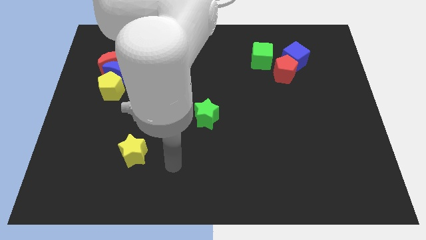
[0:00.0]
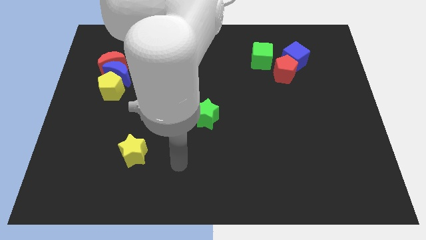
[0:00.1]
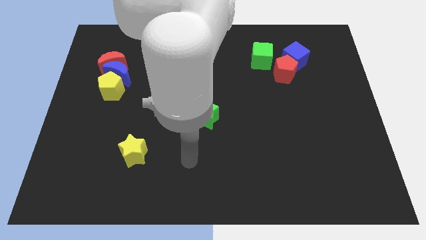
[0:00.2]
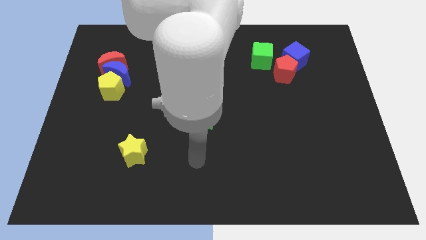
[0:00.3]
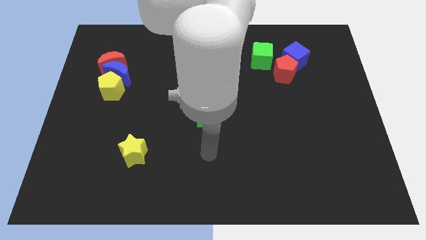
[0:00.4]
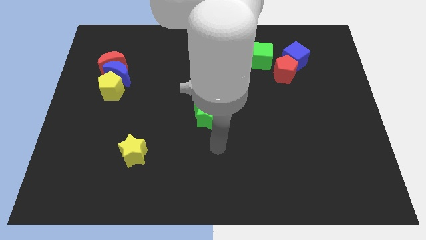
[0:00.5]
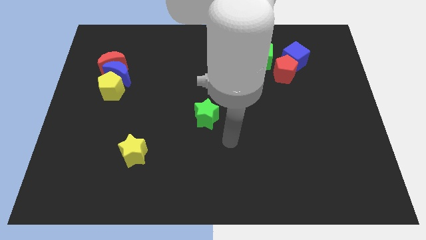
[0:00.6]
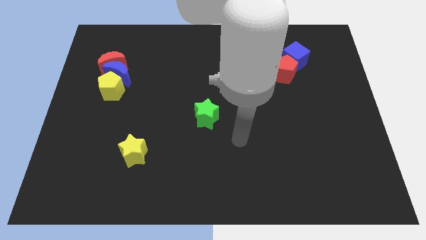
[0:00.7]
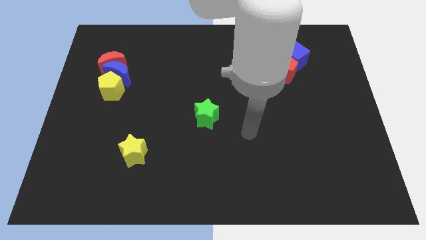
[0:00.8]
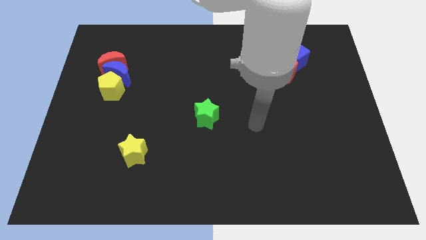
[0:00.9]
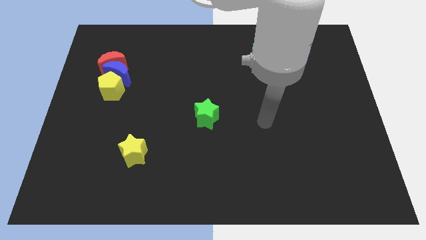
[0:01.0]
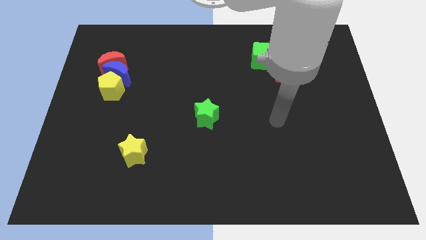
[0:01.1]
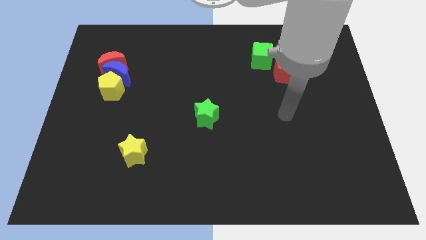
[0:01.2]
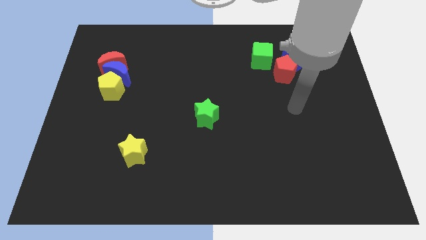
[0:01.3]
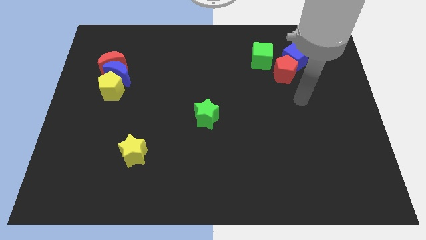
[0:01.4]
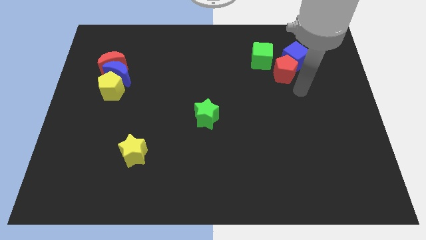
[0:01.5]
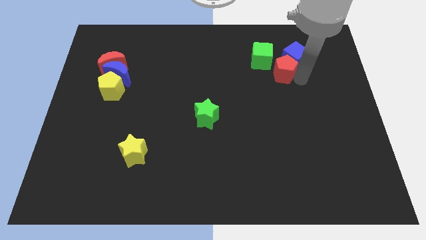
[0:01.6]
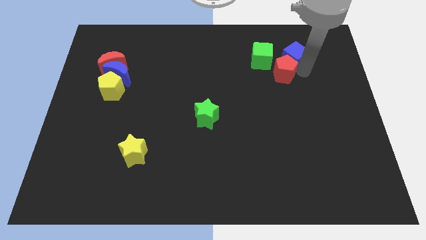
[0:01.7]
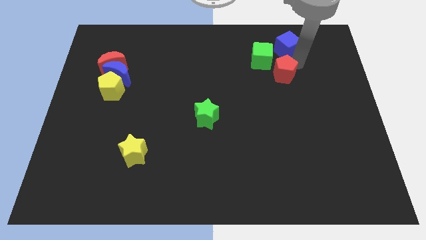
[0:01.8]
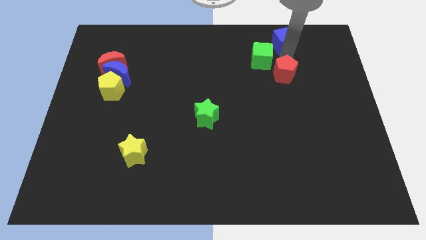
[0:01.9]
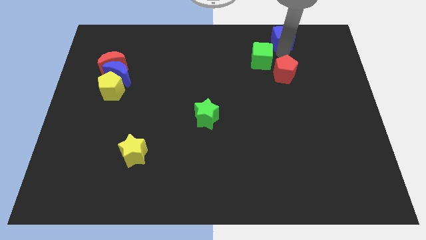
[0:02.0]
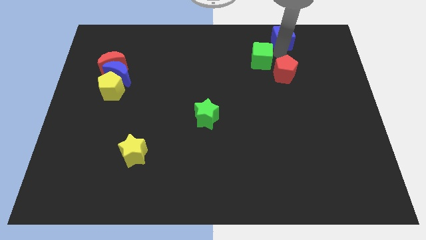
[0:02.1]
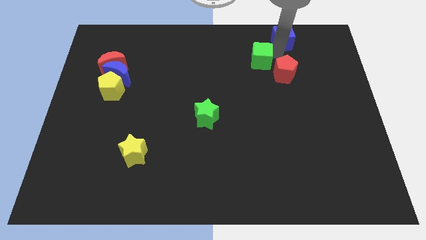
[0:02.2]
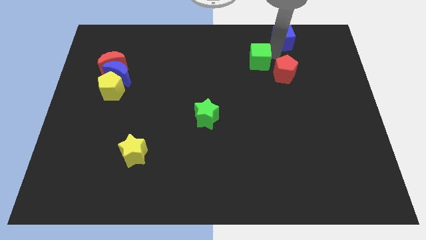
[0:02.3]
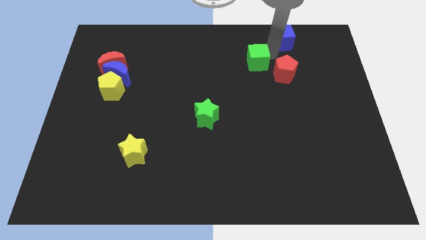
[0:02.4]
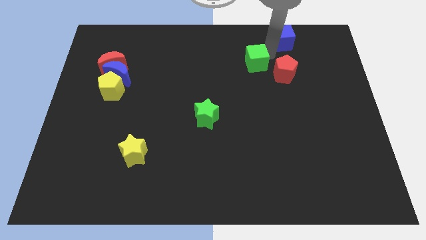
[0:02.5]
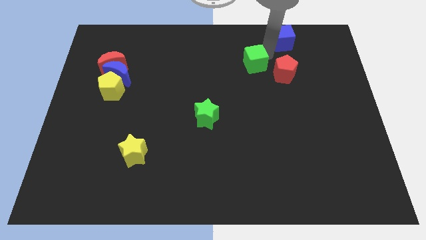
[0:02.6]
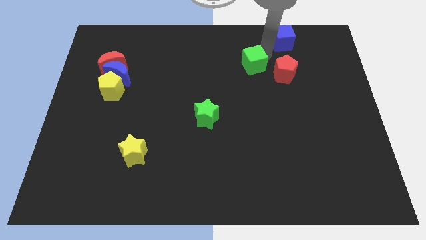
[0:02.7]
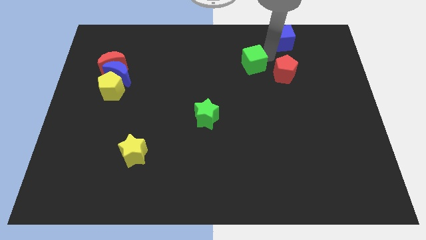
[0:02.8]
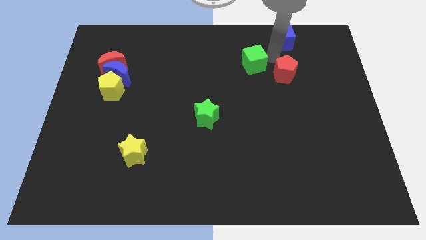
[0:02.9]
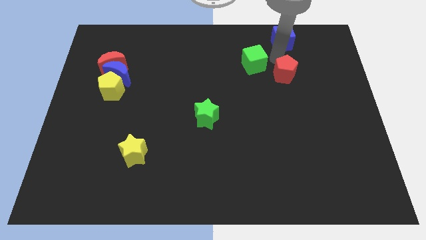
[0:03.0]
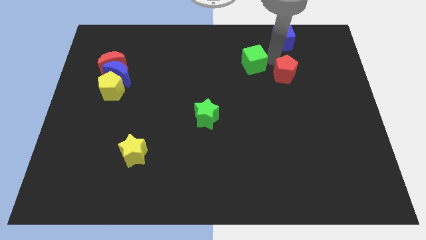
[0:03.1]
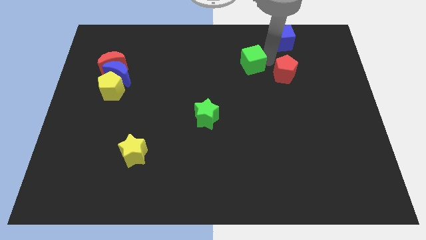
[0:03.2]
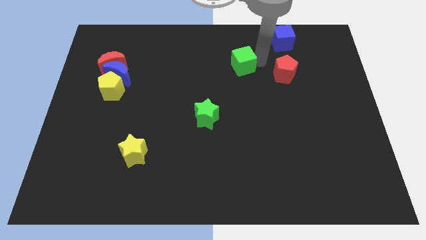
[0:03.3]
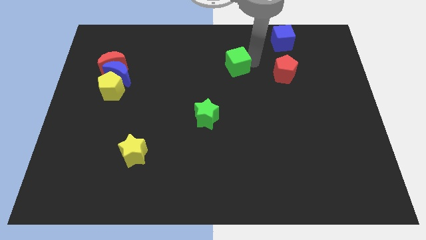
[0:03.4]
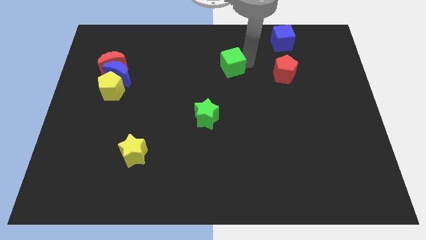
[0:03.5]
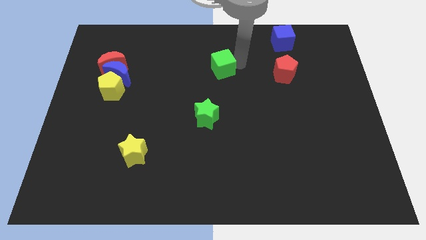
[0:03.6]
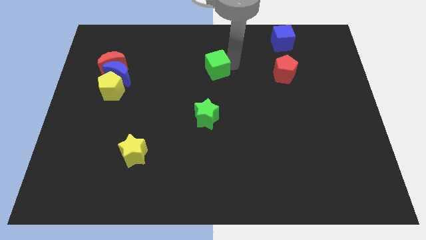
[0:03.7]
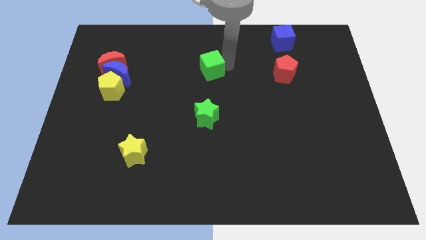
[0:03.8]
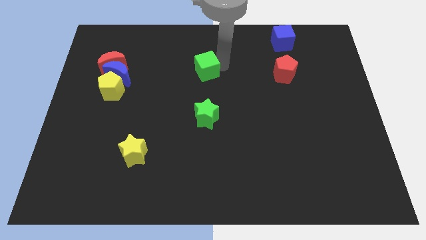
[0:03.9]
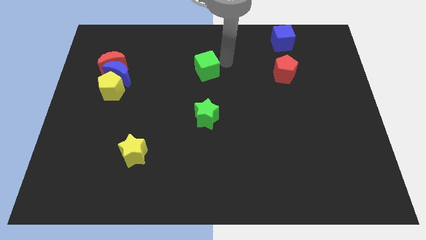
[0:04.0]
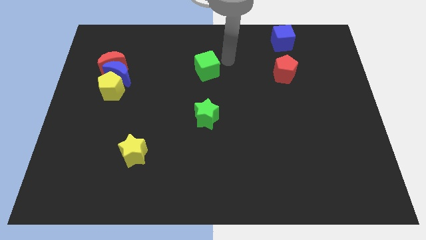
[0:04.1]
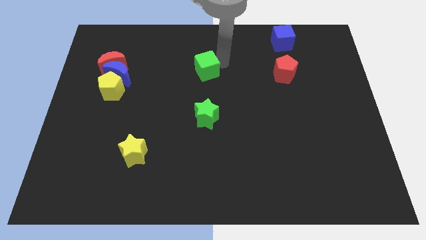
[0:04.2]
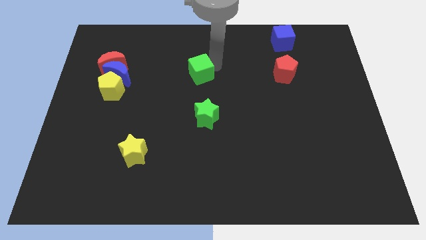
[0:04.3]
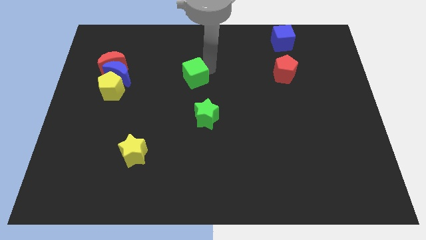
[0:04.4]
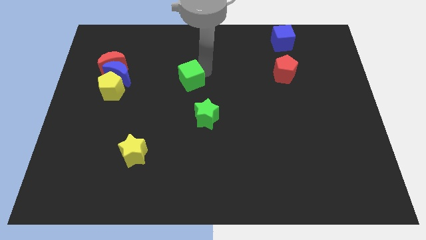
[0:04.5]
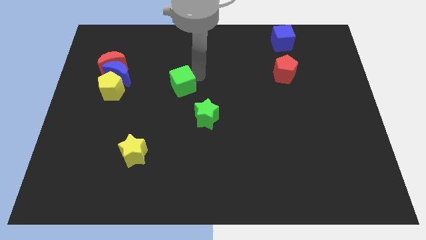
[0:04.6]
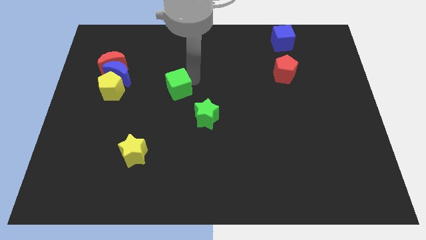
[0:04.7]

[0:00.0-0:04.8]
move the green cube to the right side of the yellow pentagon

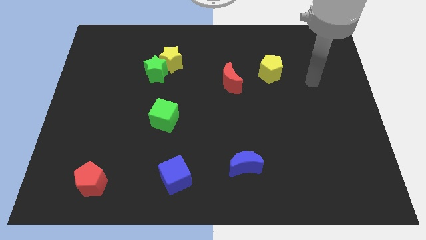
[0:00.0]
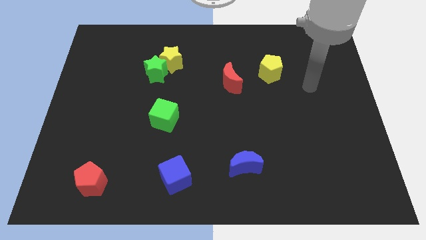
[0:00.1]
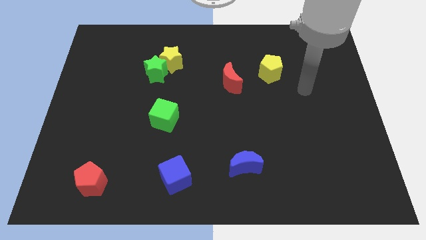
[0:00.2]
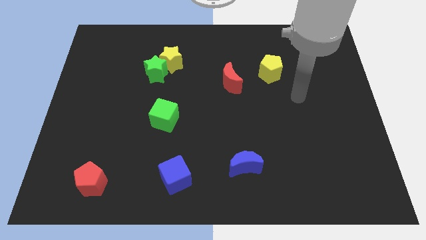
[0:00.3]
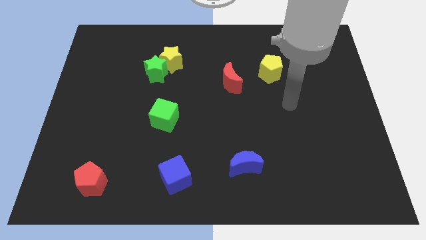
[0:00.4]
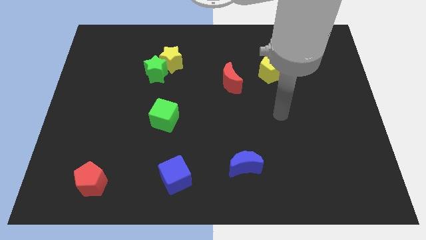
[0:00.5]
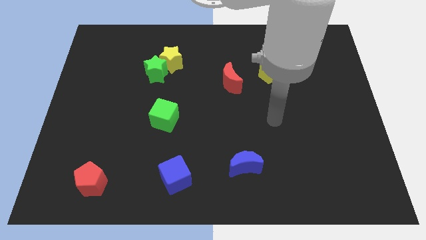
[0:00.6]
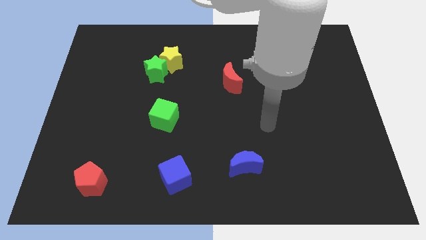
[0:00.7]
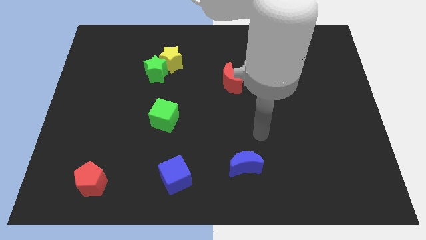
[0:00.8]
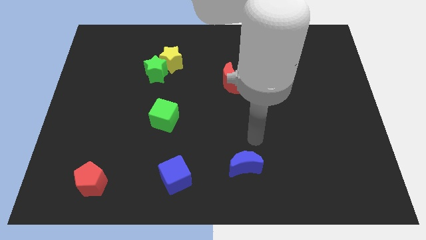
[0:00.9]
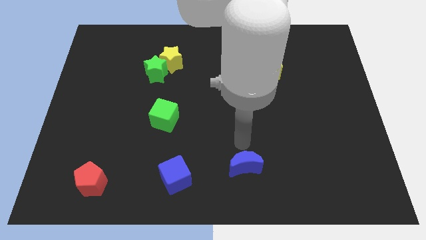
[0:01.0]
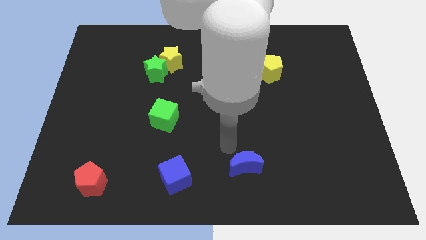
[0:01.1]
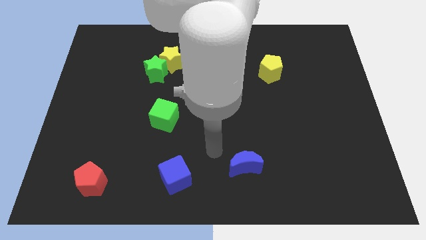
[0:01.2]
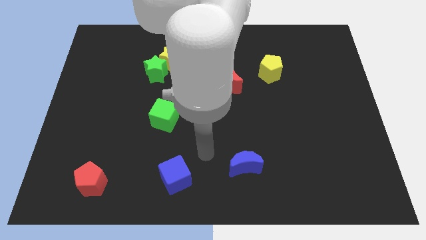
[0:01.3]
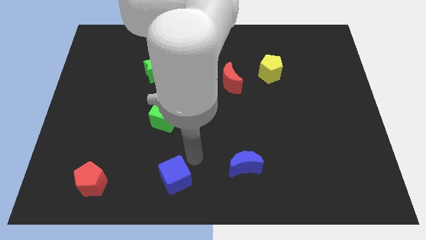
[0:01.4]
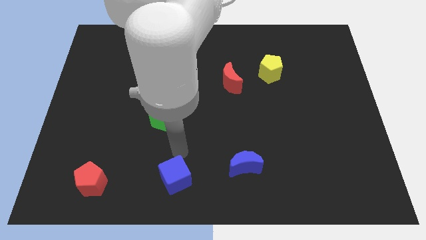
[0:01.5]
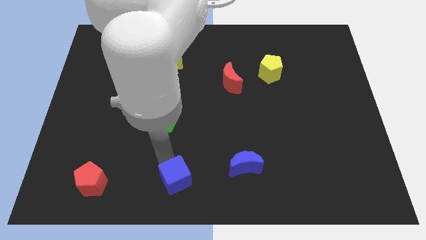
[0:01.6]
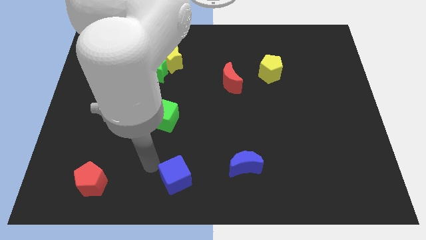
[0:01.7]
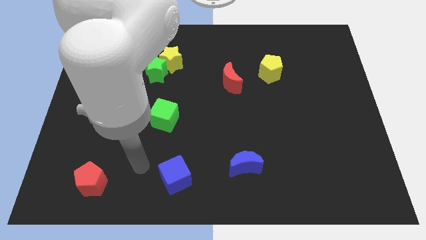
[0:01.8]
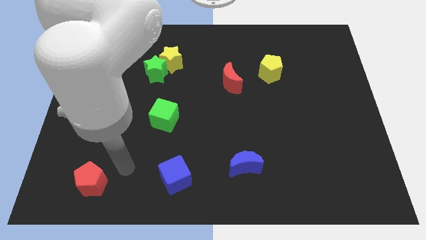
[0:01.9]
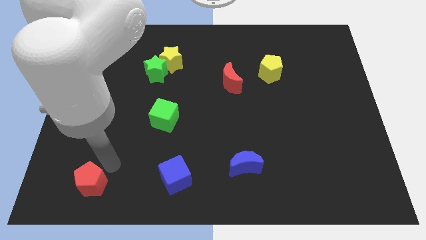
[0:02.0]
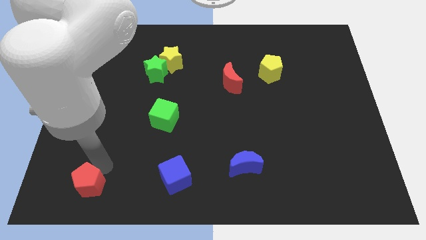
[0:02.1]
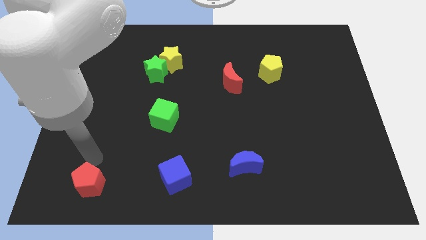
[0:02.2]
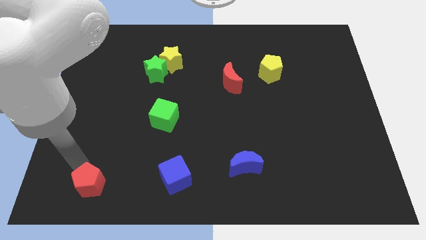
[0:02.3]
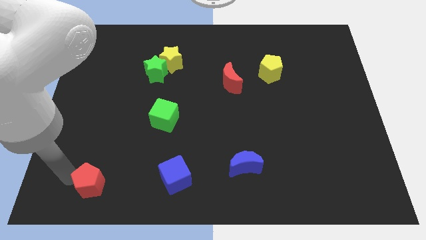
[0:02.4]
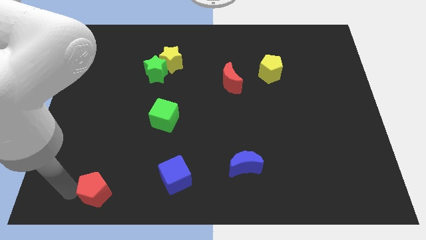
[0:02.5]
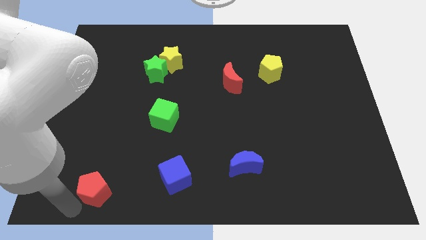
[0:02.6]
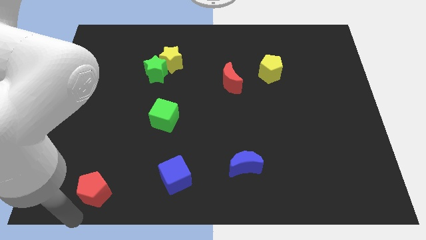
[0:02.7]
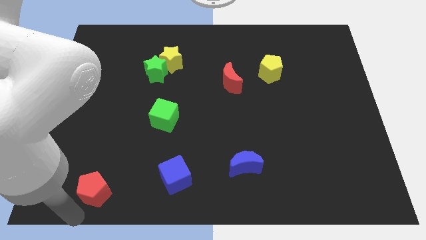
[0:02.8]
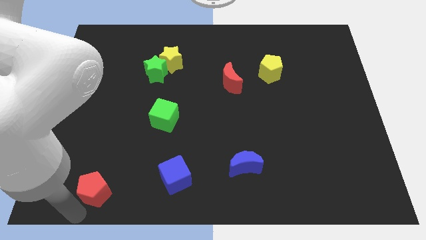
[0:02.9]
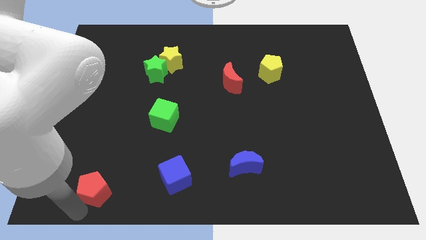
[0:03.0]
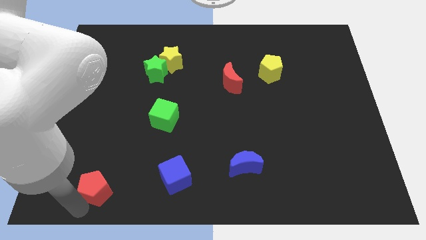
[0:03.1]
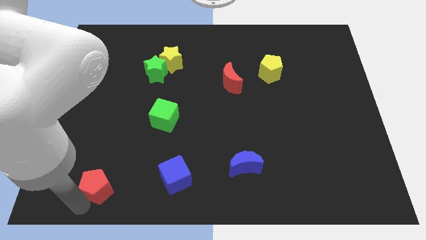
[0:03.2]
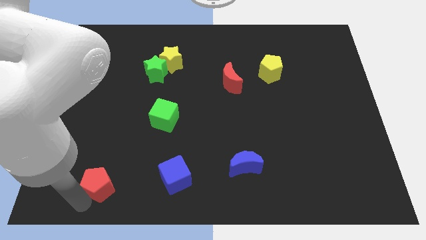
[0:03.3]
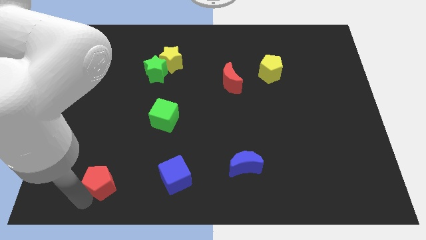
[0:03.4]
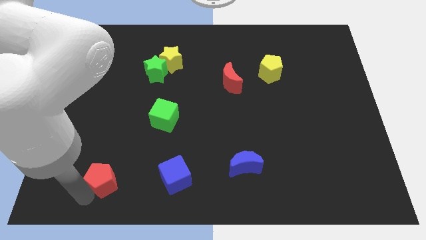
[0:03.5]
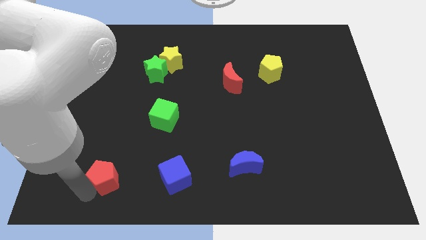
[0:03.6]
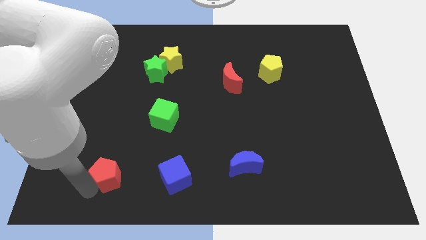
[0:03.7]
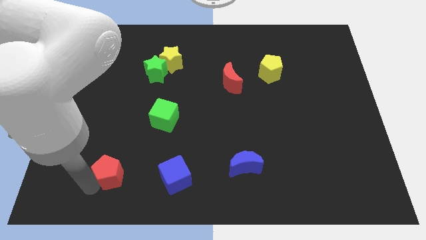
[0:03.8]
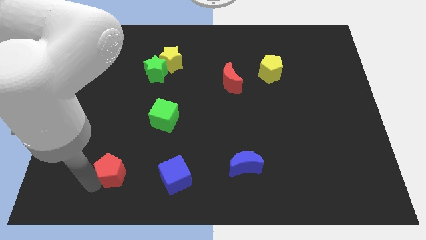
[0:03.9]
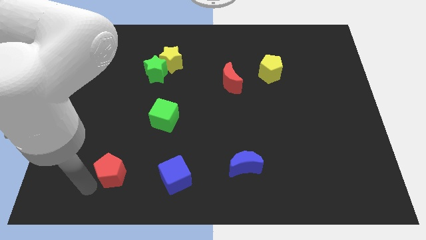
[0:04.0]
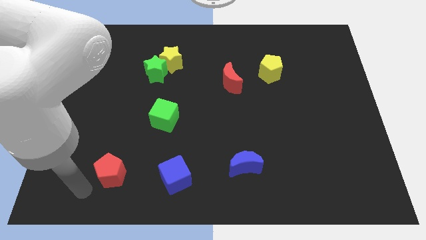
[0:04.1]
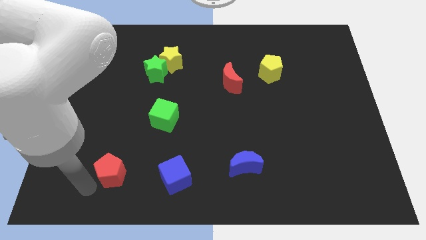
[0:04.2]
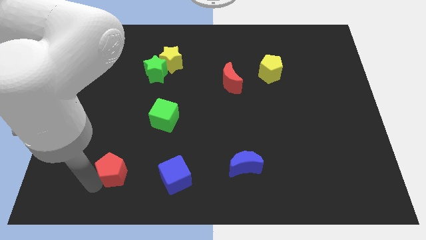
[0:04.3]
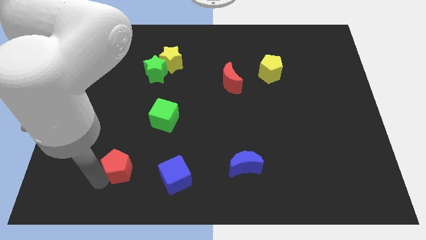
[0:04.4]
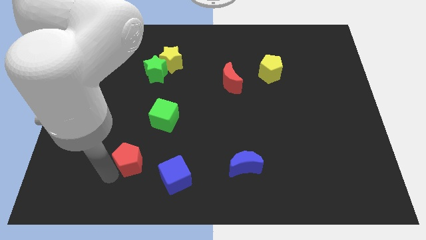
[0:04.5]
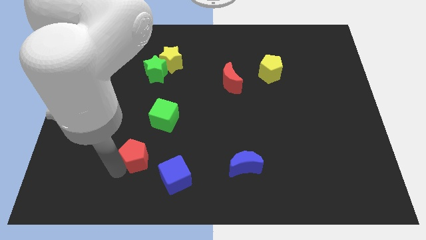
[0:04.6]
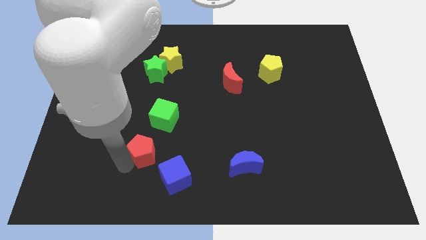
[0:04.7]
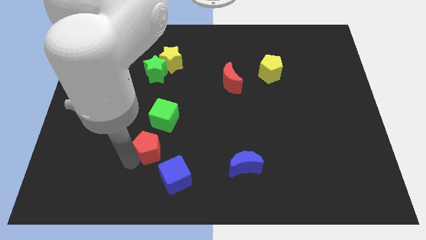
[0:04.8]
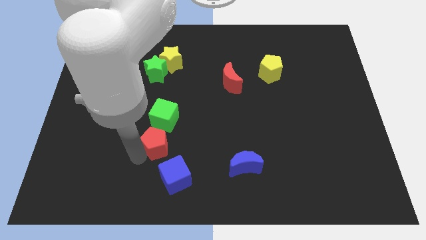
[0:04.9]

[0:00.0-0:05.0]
put the red pentagon above the blue cube
